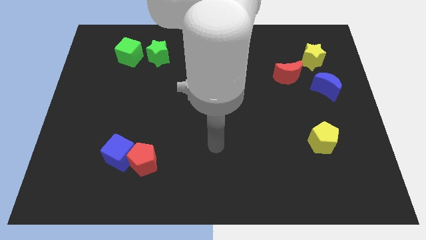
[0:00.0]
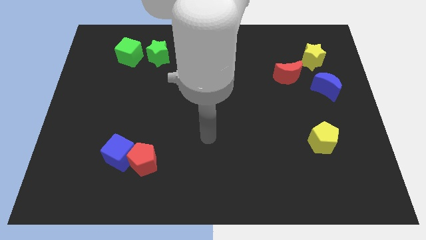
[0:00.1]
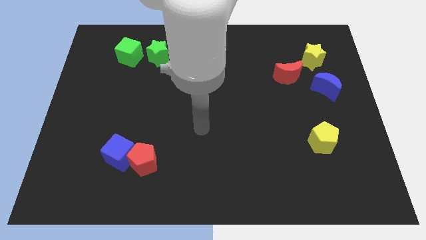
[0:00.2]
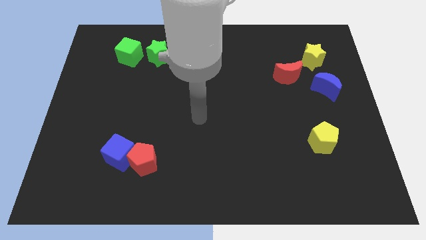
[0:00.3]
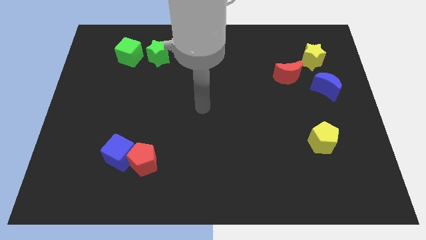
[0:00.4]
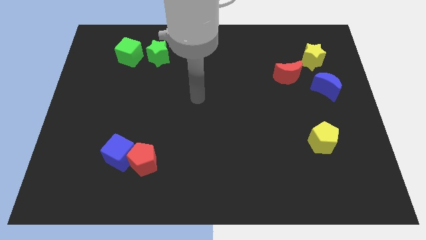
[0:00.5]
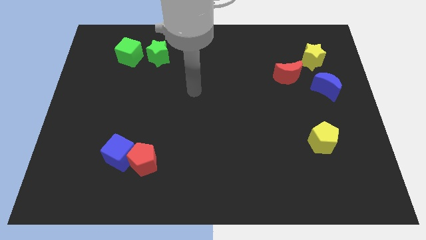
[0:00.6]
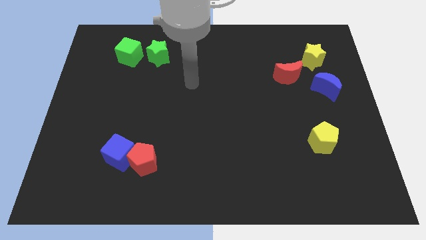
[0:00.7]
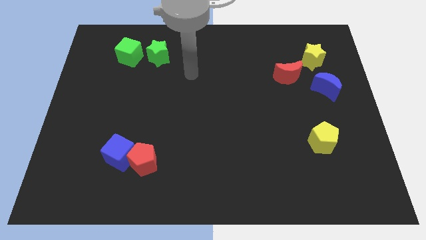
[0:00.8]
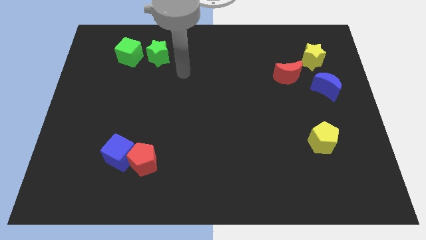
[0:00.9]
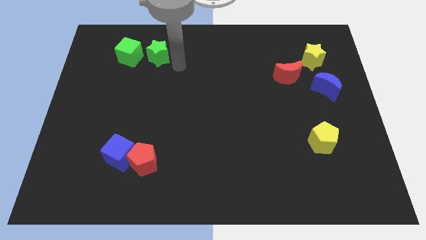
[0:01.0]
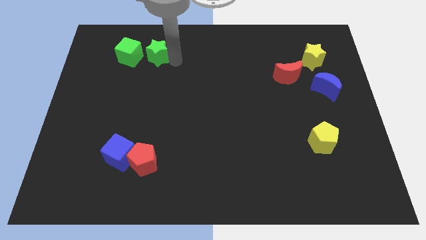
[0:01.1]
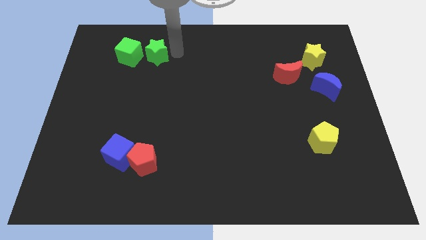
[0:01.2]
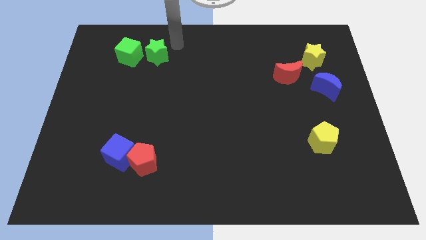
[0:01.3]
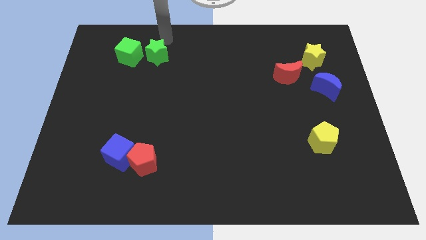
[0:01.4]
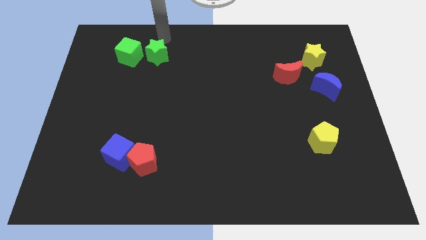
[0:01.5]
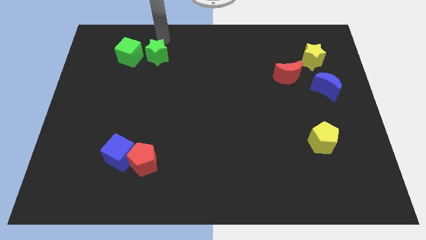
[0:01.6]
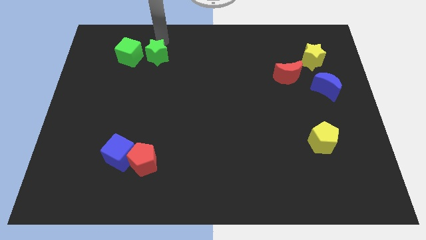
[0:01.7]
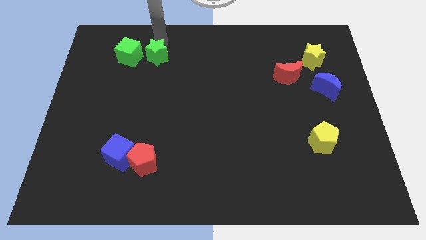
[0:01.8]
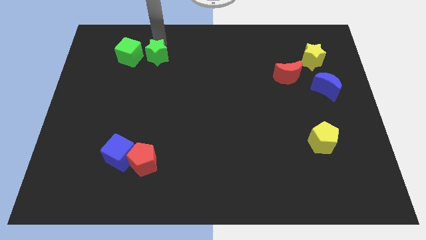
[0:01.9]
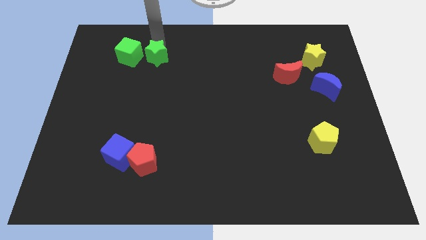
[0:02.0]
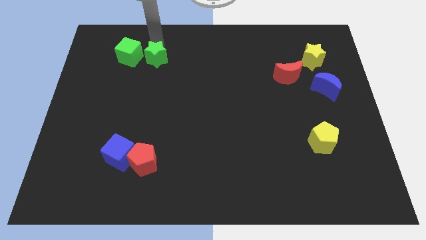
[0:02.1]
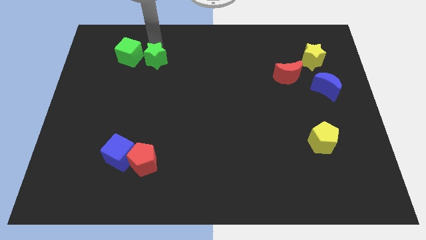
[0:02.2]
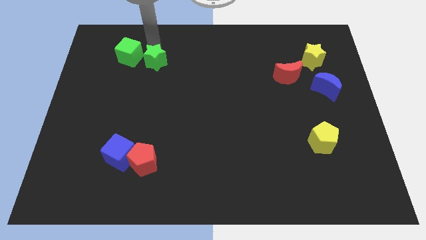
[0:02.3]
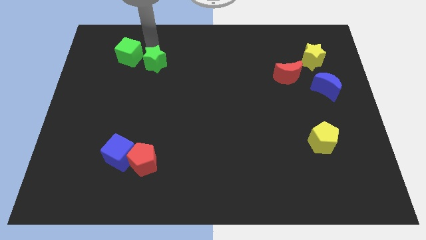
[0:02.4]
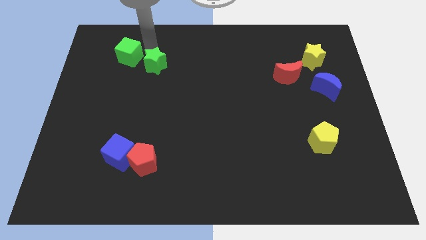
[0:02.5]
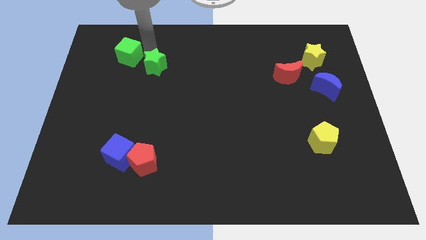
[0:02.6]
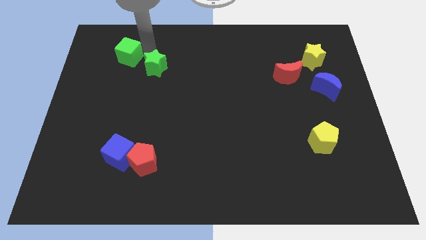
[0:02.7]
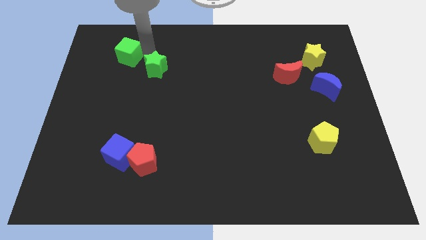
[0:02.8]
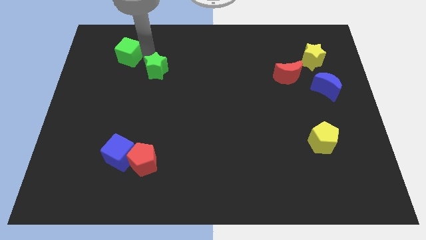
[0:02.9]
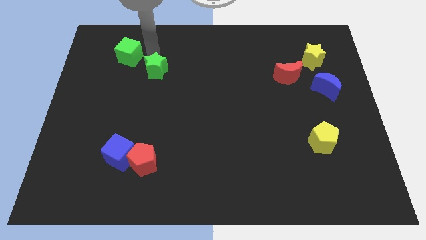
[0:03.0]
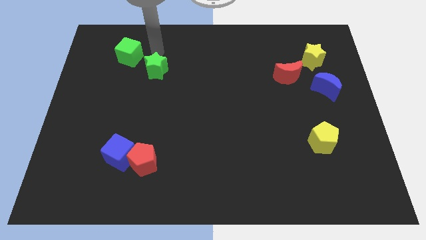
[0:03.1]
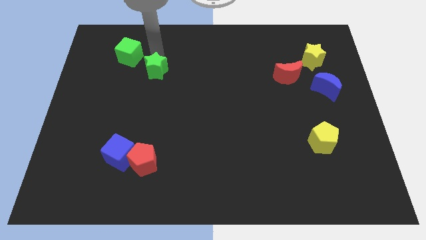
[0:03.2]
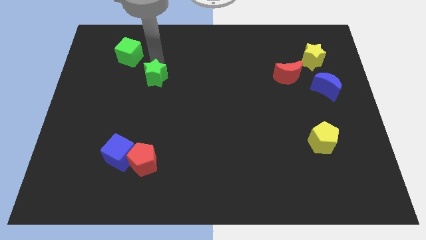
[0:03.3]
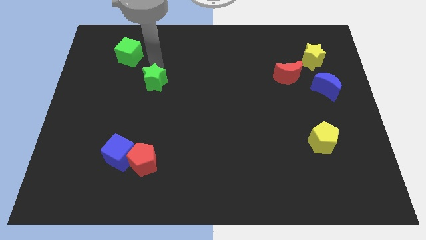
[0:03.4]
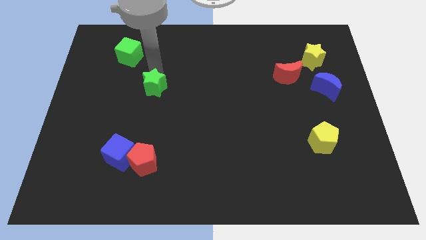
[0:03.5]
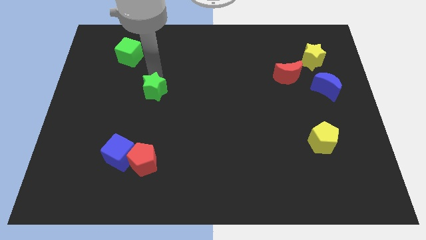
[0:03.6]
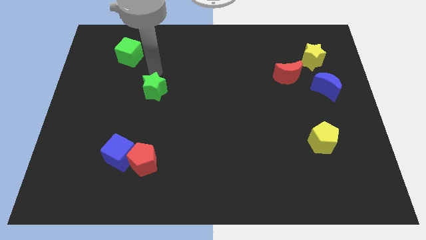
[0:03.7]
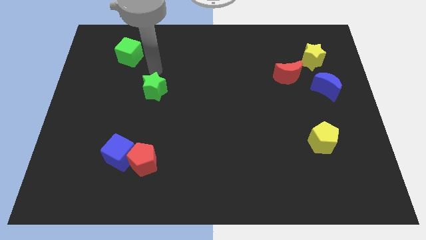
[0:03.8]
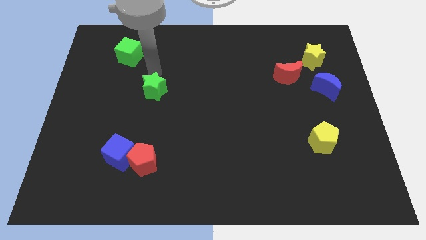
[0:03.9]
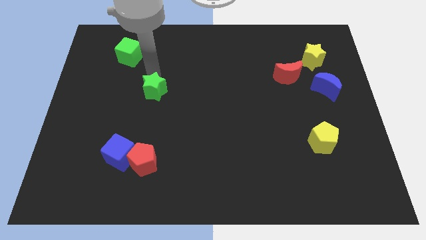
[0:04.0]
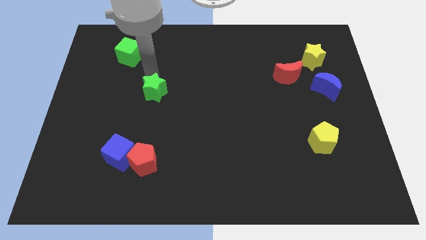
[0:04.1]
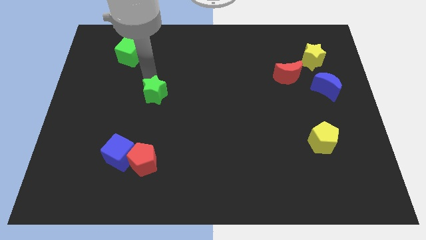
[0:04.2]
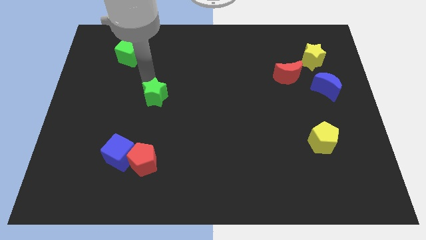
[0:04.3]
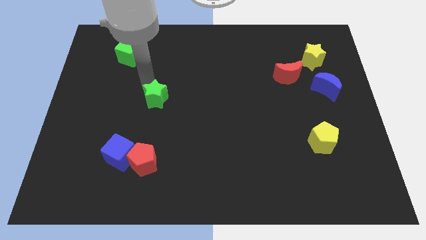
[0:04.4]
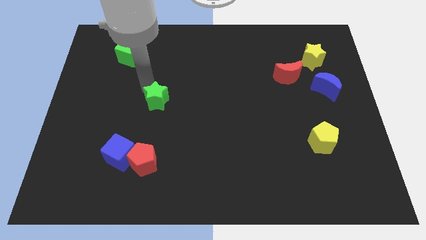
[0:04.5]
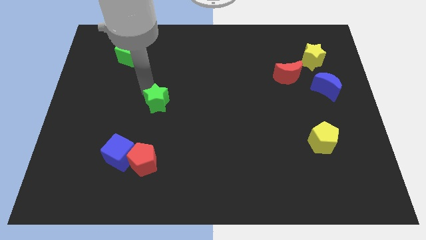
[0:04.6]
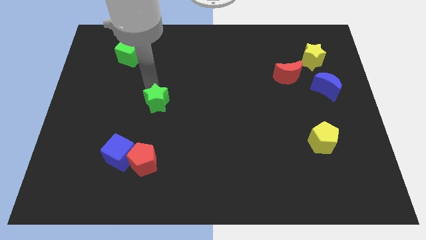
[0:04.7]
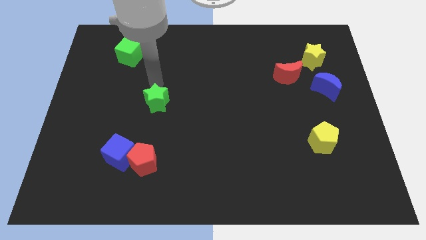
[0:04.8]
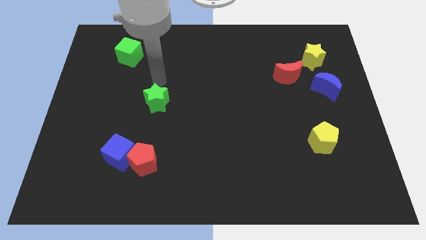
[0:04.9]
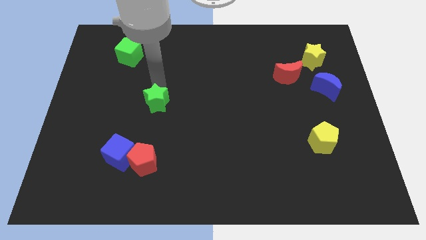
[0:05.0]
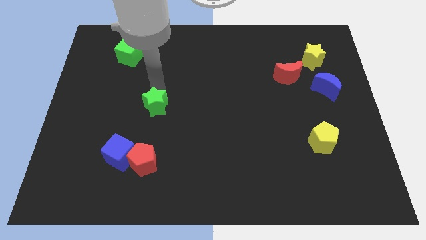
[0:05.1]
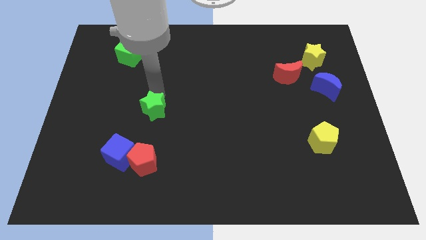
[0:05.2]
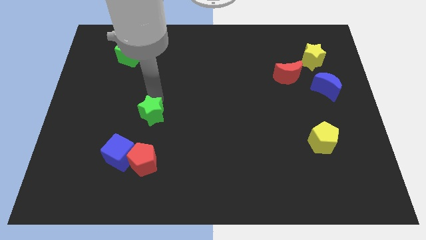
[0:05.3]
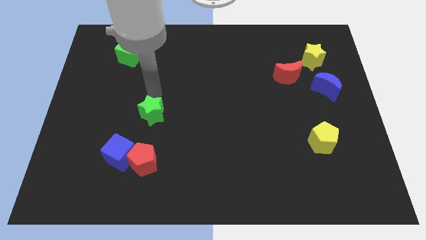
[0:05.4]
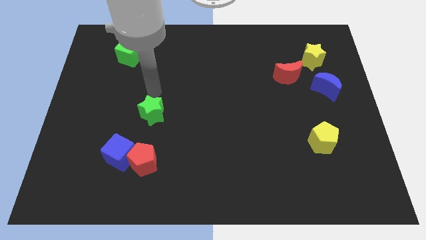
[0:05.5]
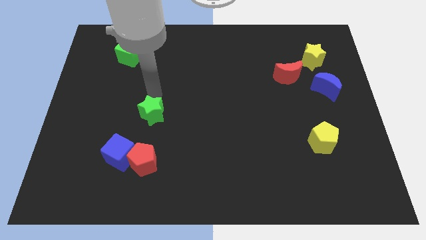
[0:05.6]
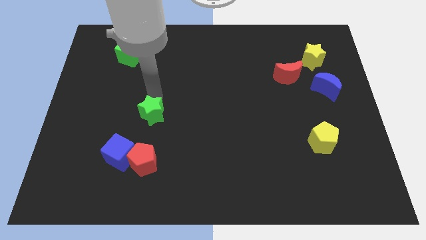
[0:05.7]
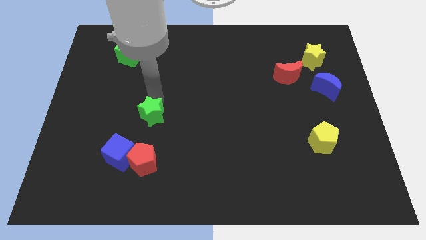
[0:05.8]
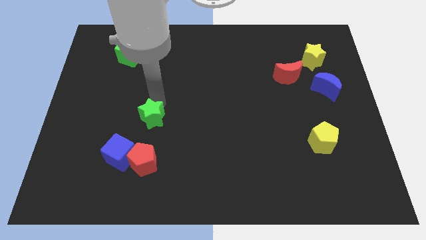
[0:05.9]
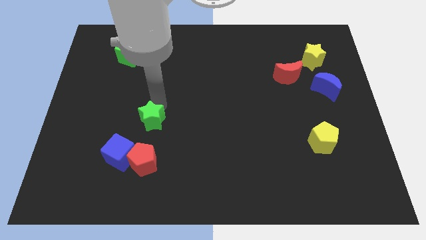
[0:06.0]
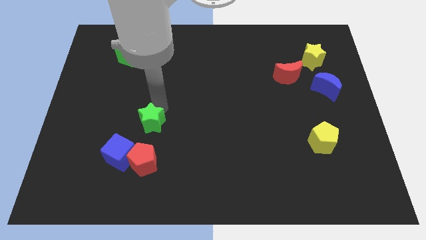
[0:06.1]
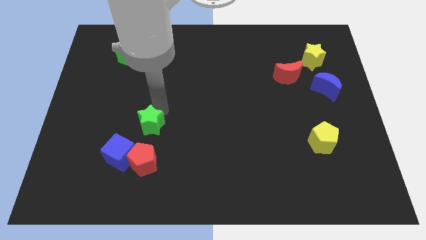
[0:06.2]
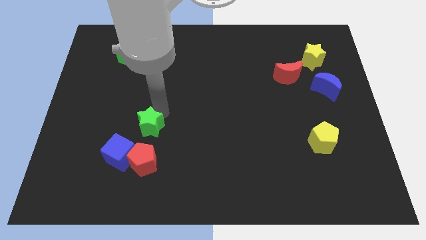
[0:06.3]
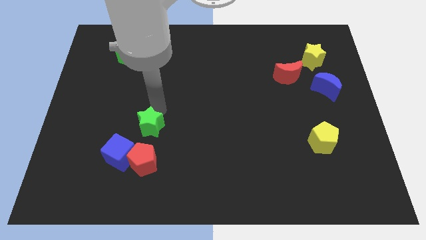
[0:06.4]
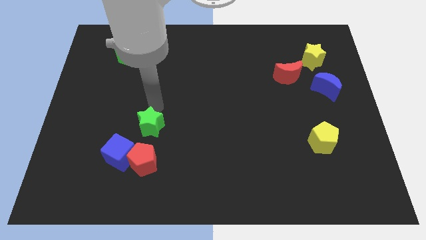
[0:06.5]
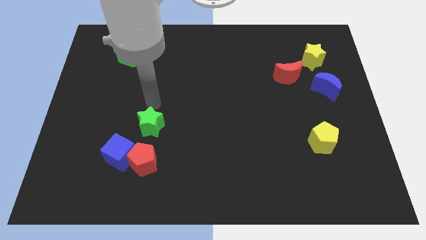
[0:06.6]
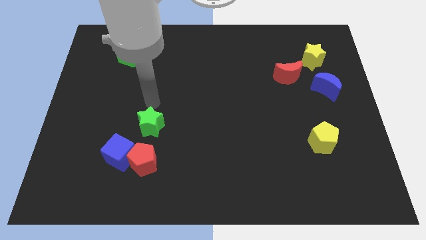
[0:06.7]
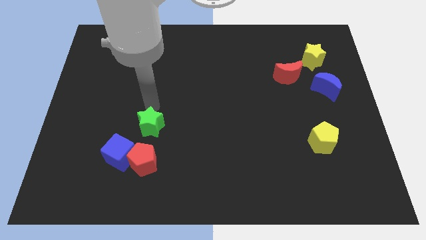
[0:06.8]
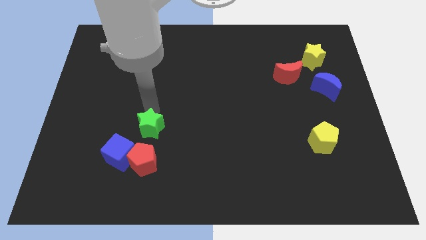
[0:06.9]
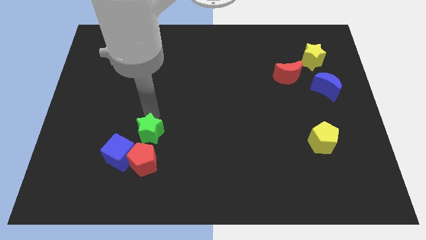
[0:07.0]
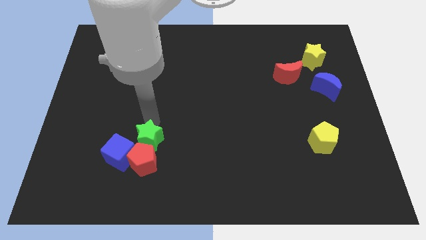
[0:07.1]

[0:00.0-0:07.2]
move the green star to the red pentagon
